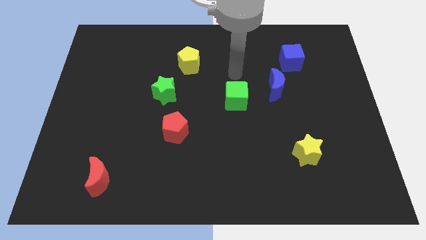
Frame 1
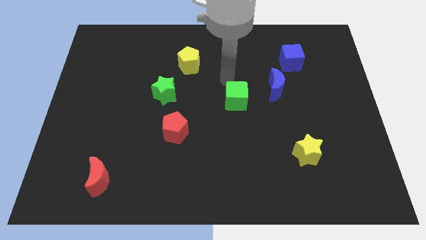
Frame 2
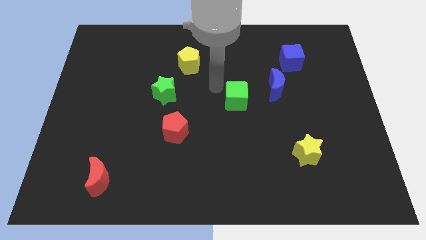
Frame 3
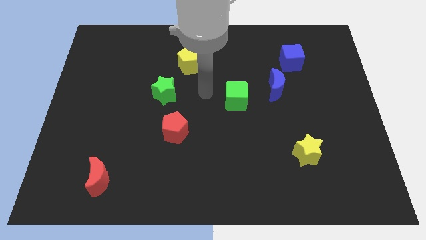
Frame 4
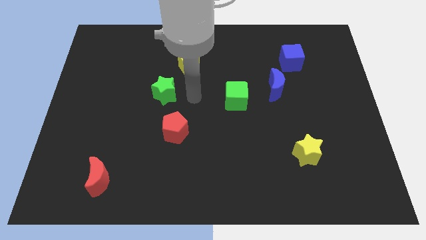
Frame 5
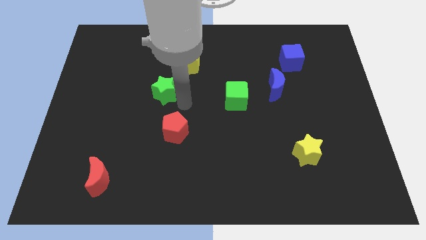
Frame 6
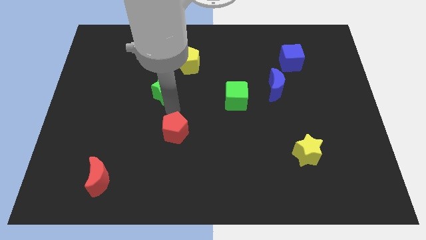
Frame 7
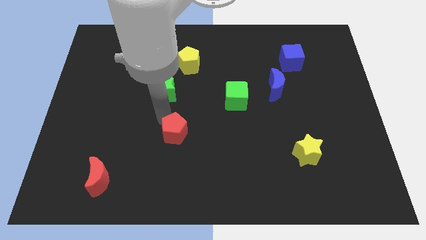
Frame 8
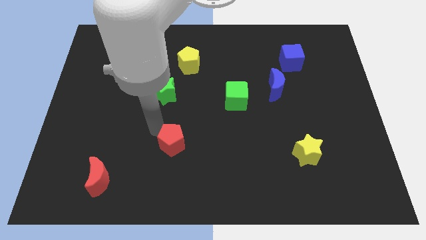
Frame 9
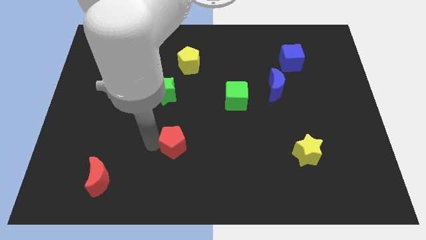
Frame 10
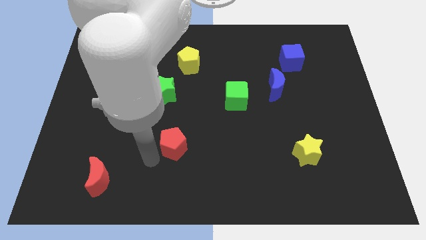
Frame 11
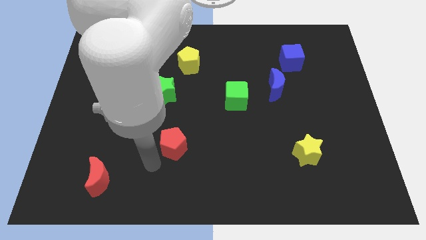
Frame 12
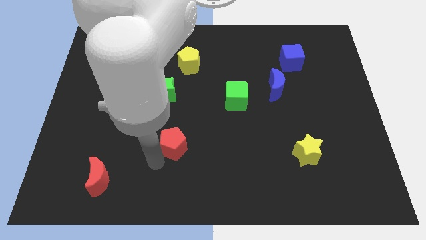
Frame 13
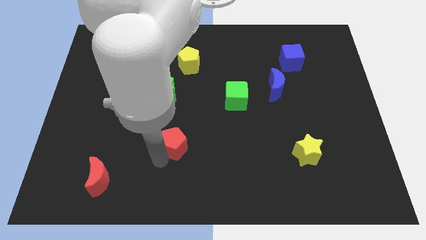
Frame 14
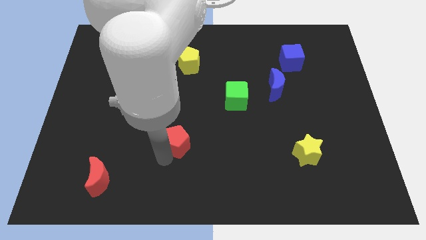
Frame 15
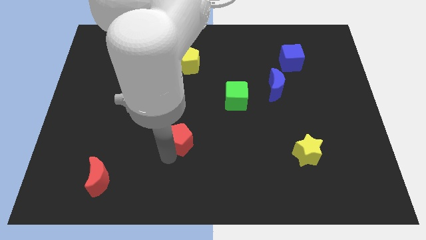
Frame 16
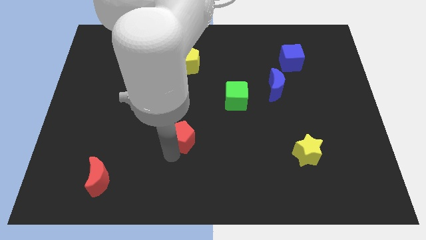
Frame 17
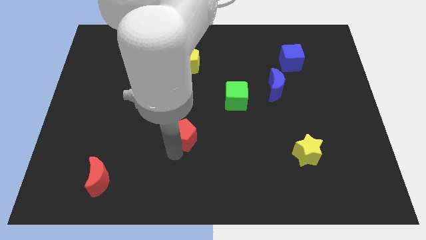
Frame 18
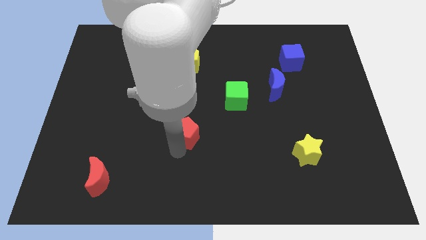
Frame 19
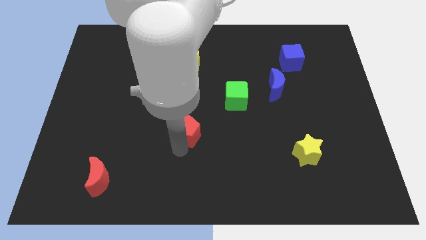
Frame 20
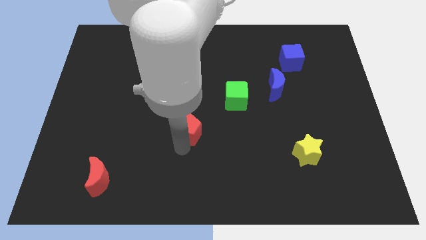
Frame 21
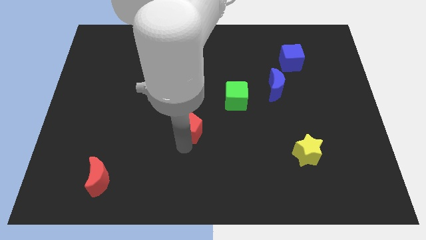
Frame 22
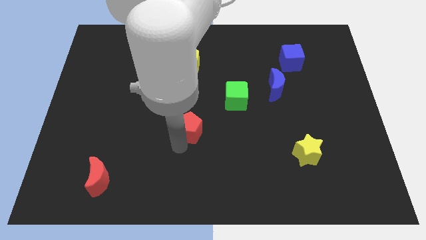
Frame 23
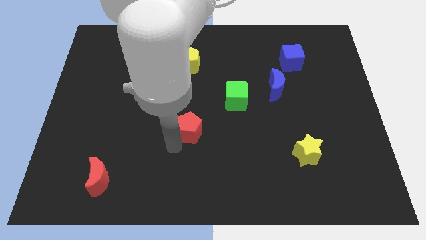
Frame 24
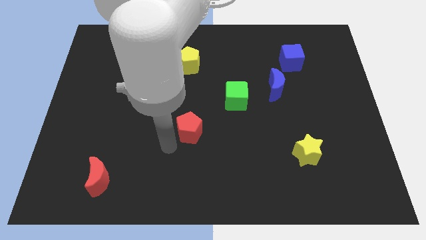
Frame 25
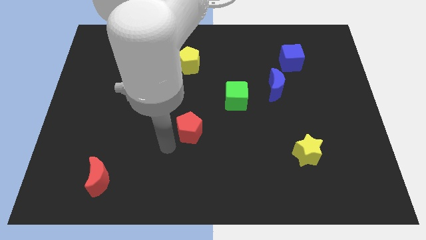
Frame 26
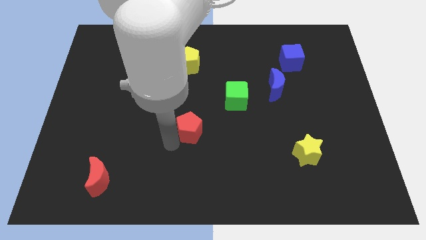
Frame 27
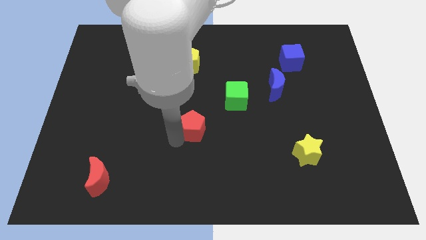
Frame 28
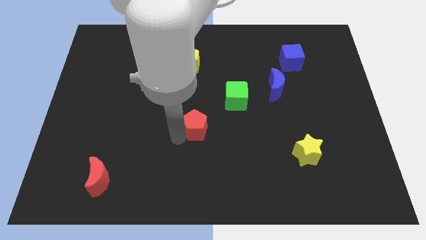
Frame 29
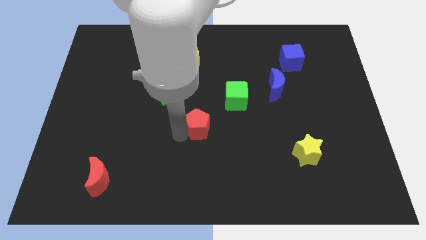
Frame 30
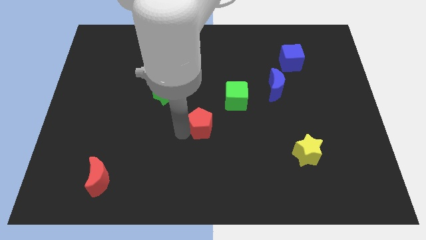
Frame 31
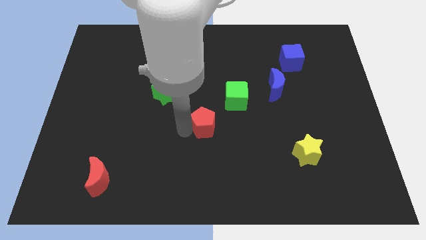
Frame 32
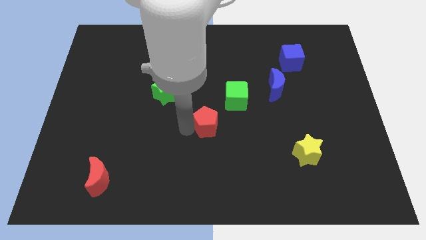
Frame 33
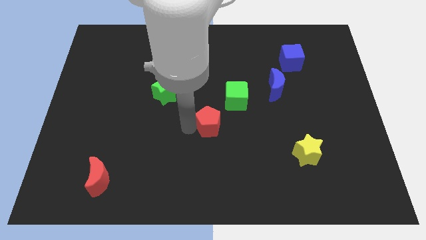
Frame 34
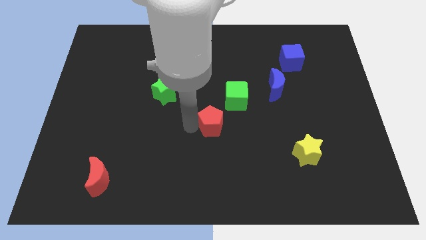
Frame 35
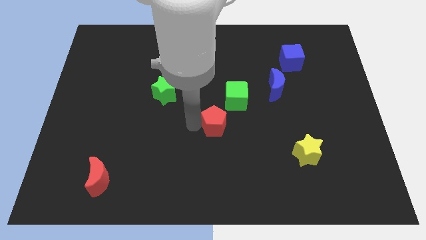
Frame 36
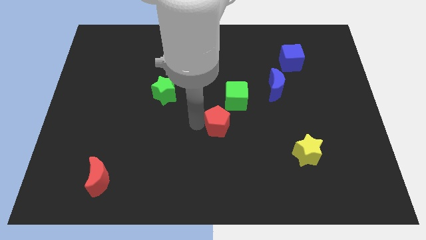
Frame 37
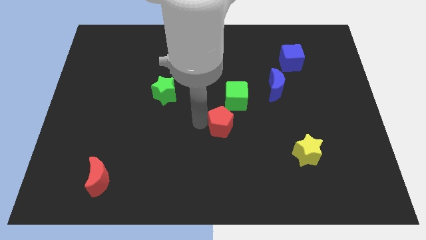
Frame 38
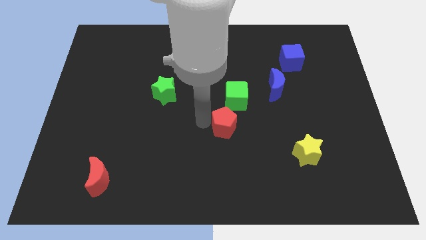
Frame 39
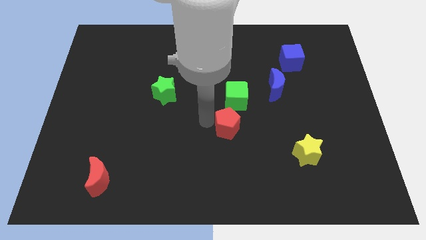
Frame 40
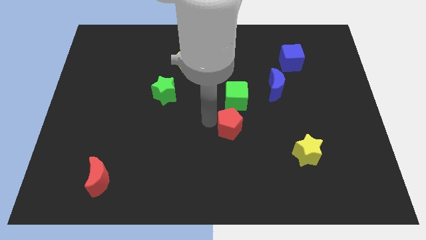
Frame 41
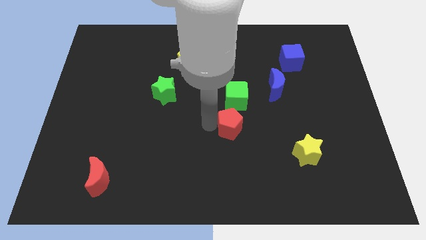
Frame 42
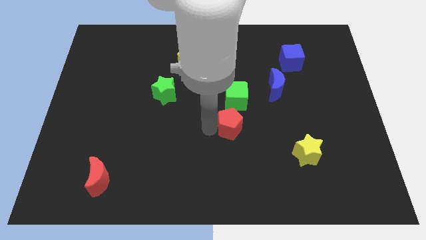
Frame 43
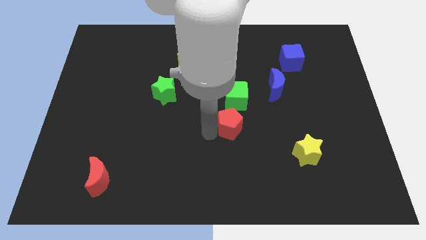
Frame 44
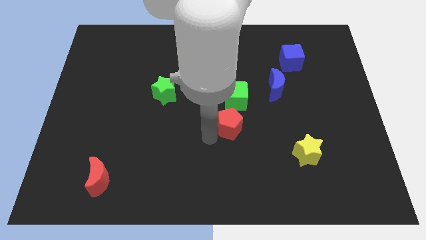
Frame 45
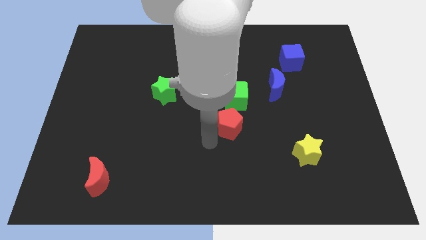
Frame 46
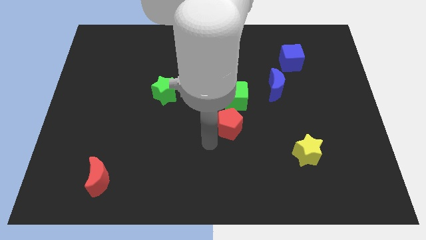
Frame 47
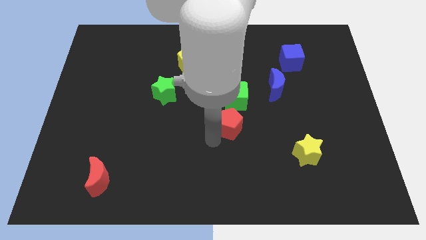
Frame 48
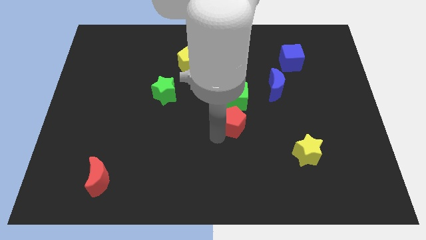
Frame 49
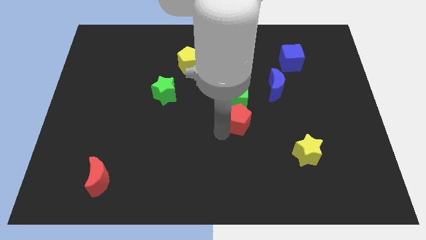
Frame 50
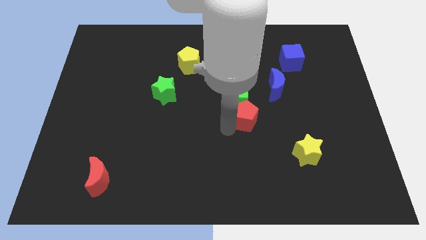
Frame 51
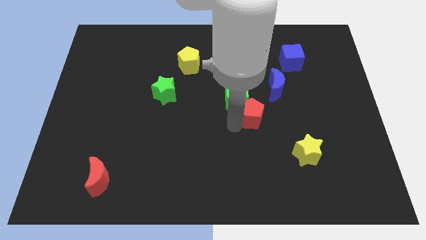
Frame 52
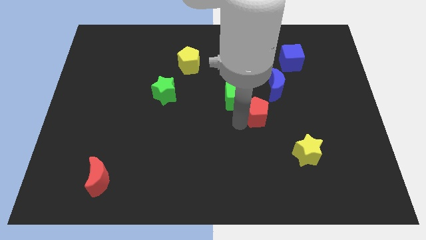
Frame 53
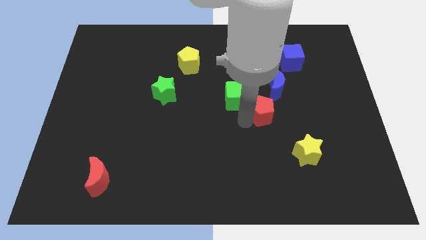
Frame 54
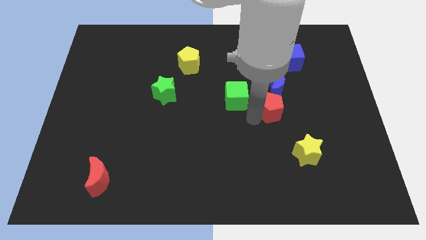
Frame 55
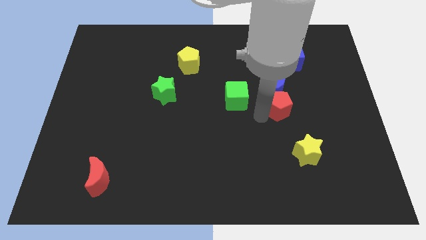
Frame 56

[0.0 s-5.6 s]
slide the red pentagon towards the blue moon

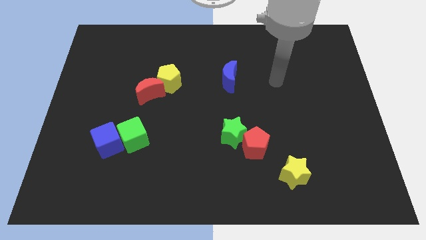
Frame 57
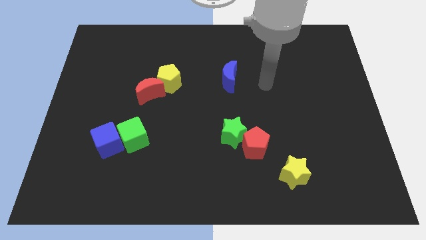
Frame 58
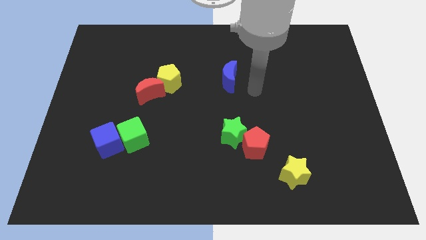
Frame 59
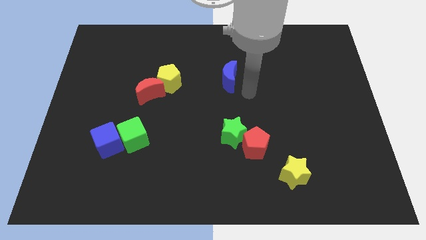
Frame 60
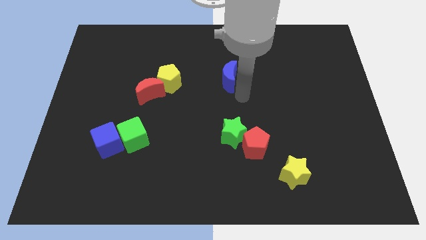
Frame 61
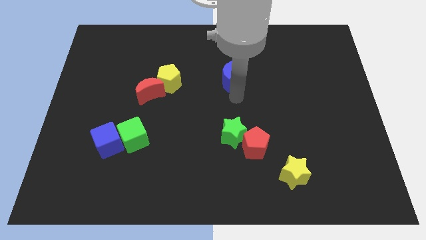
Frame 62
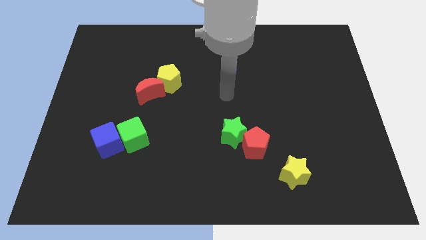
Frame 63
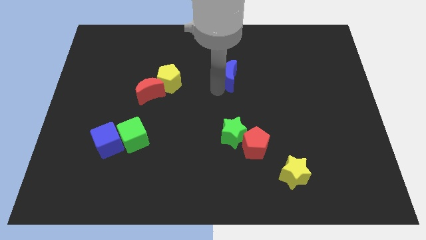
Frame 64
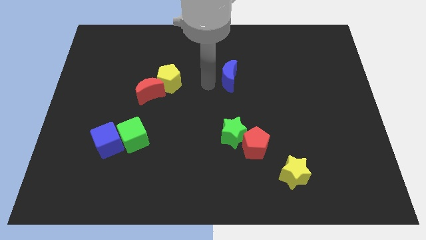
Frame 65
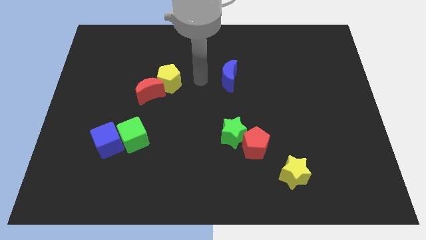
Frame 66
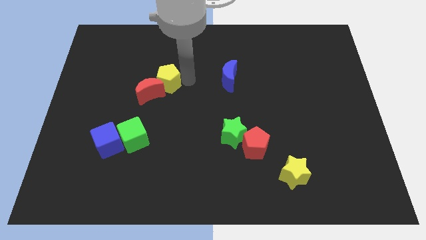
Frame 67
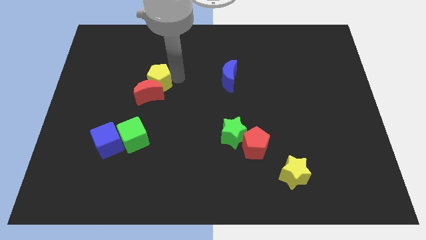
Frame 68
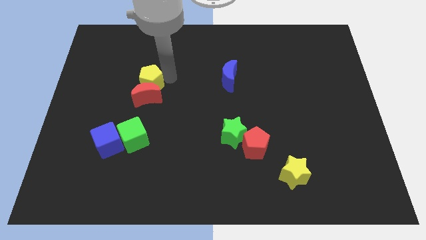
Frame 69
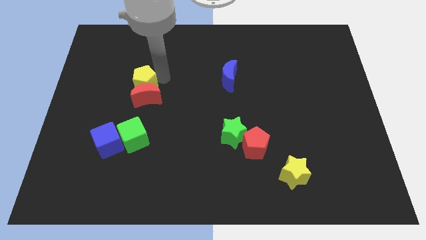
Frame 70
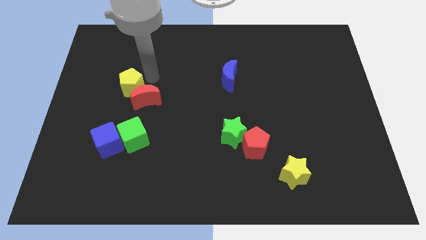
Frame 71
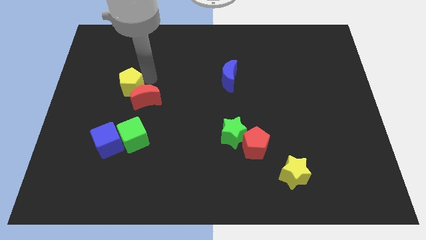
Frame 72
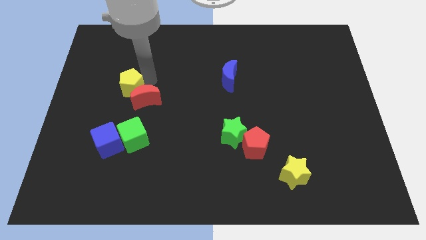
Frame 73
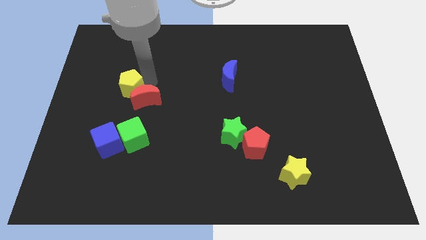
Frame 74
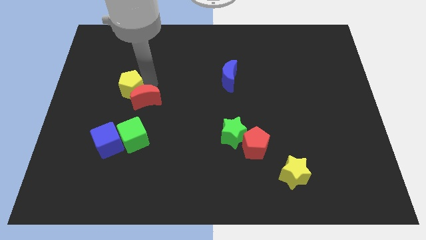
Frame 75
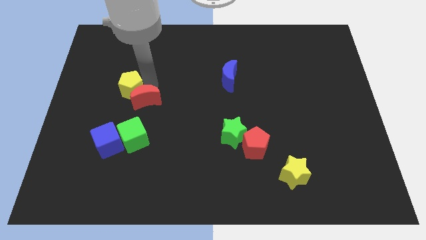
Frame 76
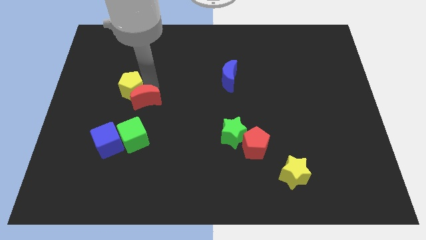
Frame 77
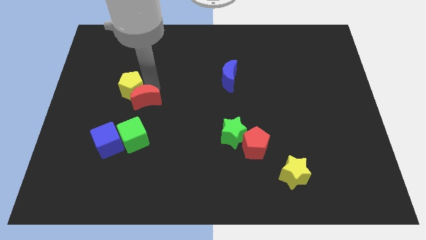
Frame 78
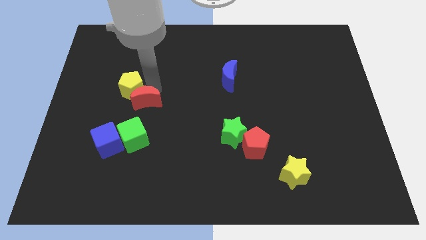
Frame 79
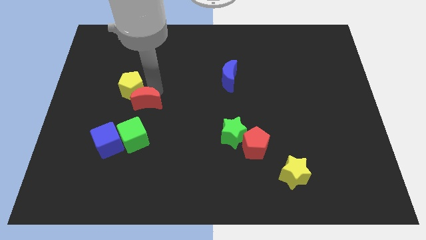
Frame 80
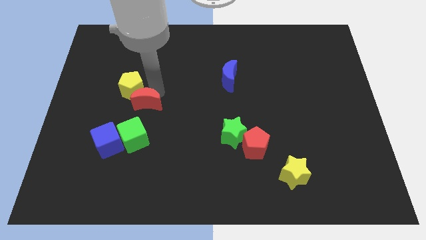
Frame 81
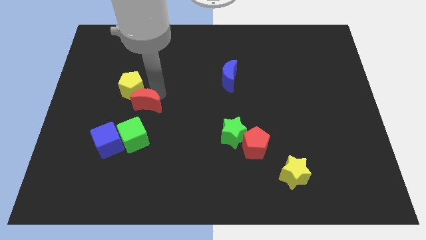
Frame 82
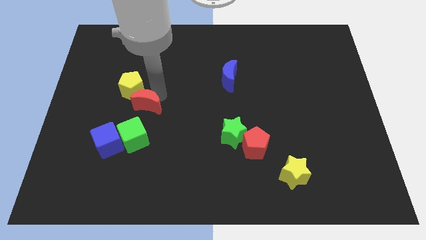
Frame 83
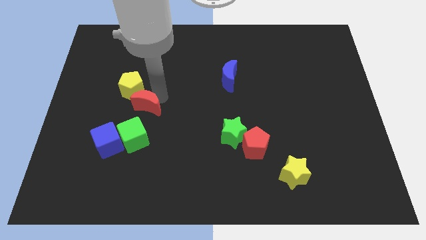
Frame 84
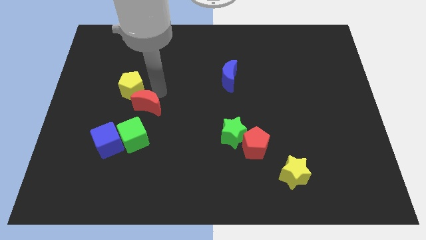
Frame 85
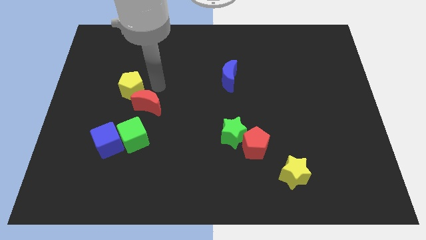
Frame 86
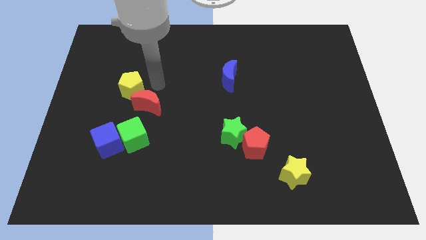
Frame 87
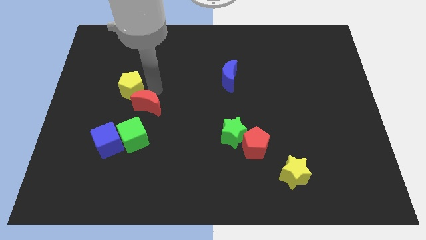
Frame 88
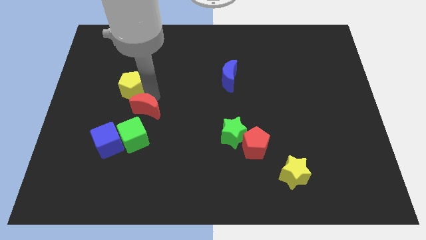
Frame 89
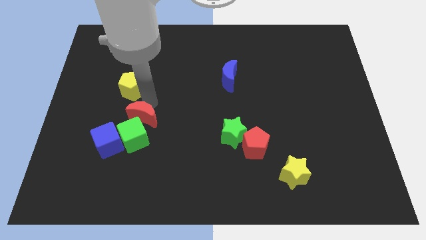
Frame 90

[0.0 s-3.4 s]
slide the red moon next to the green cube
